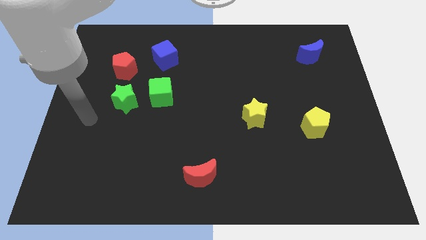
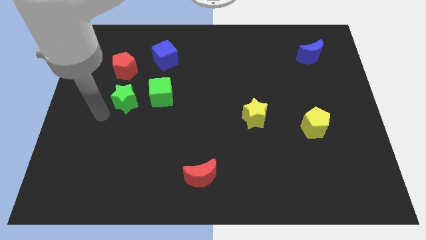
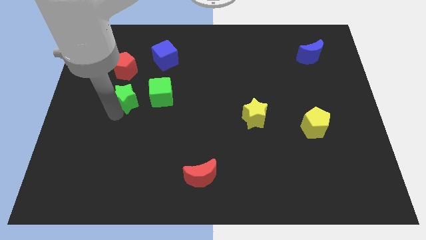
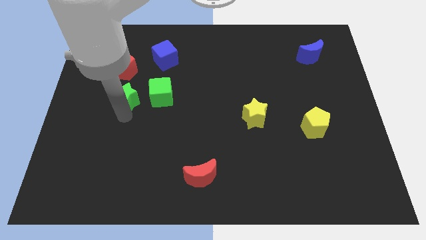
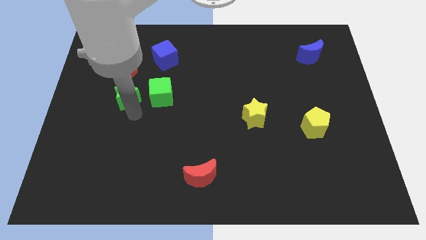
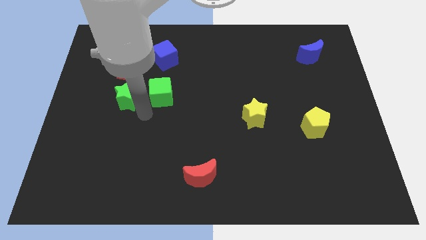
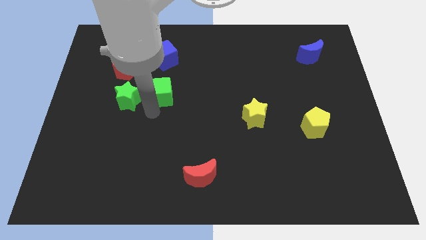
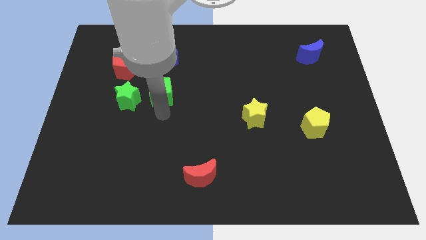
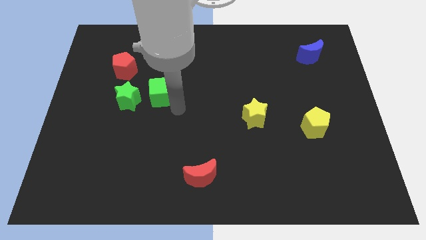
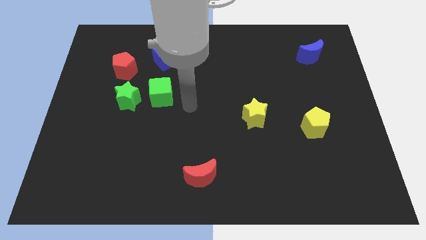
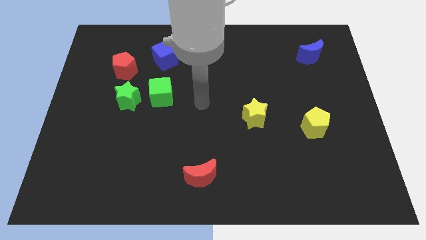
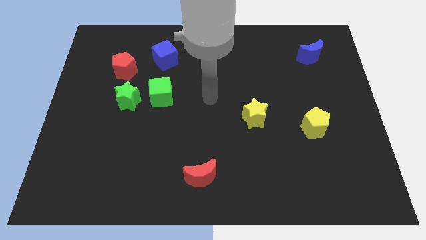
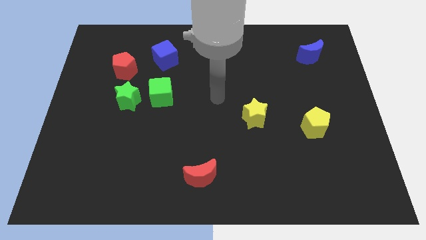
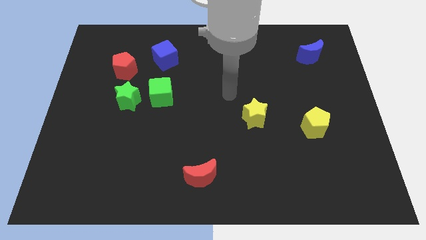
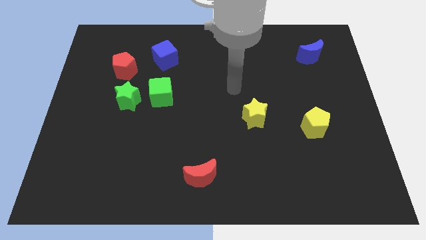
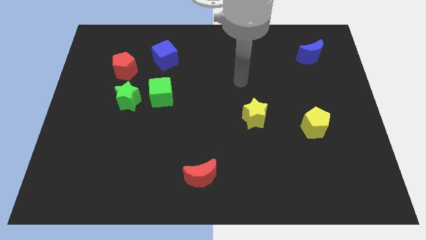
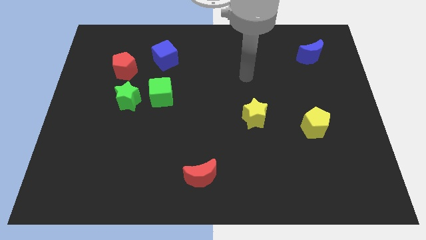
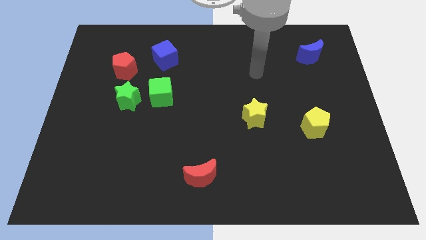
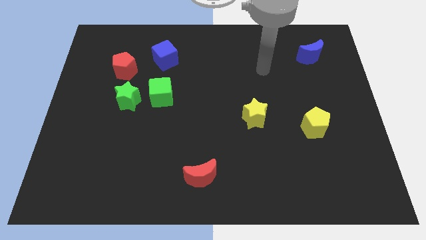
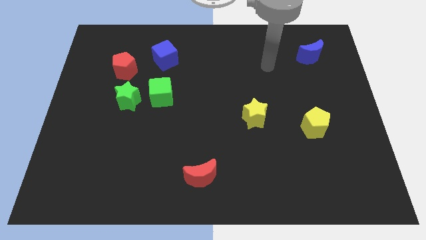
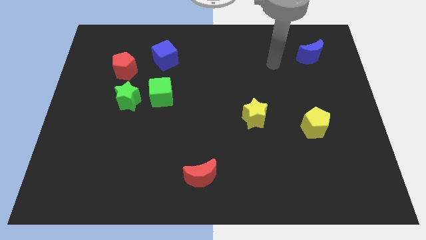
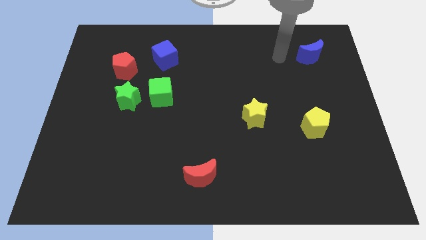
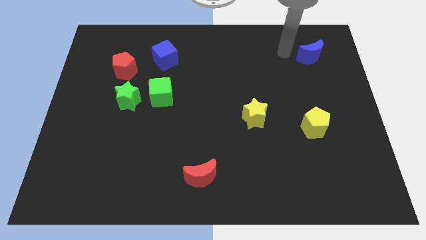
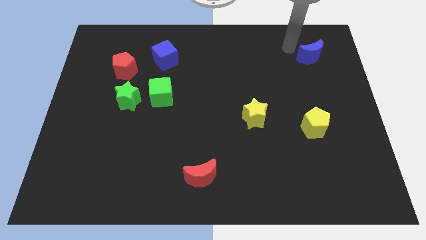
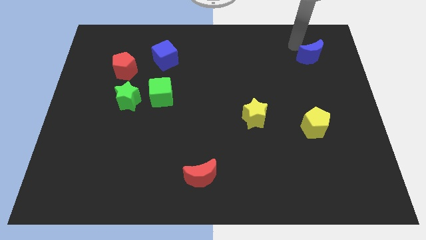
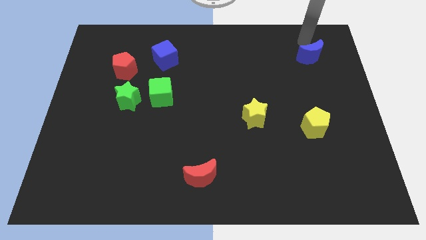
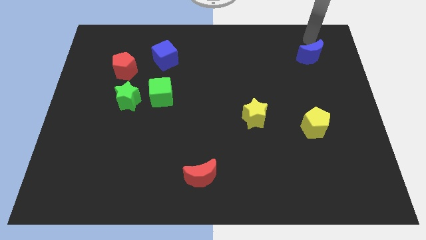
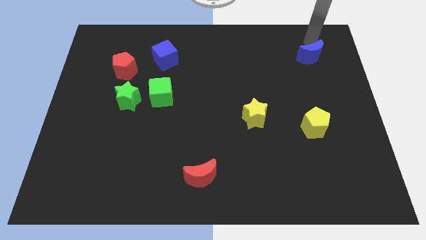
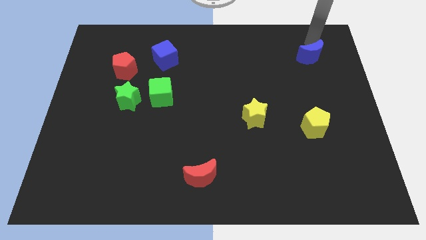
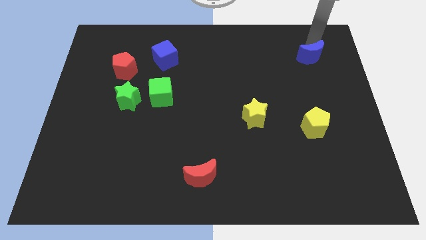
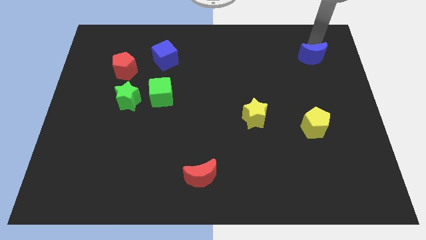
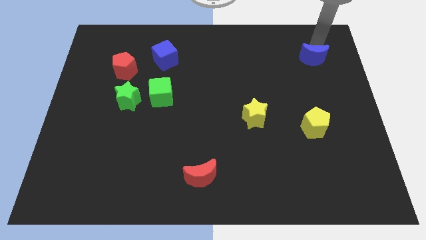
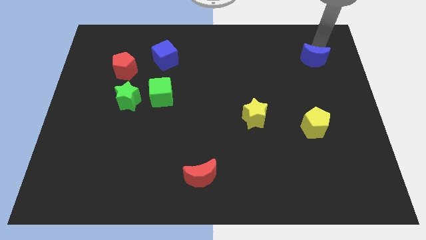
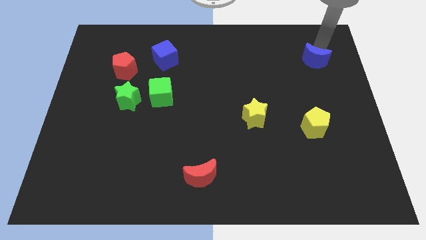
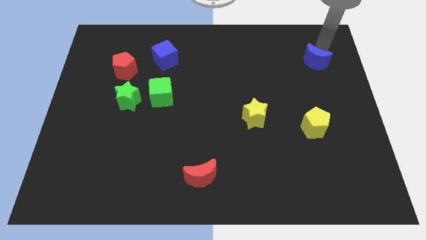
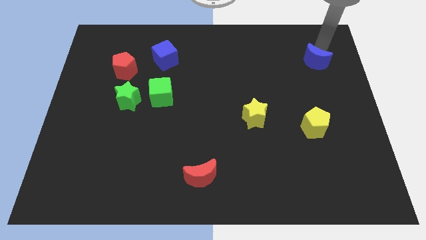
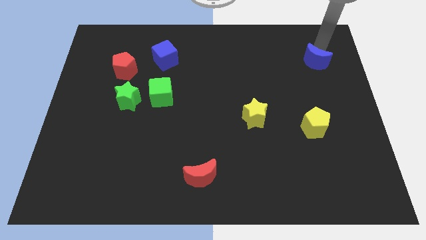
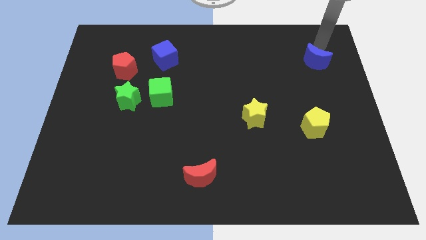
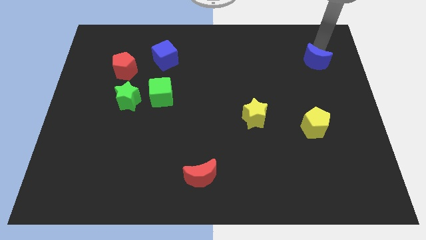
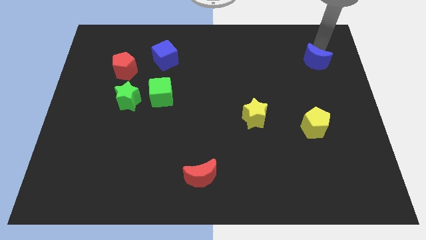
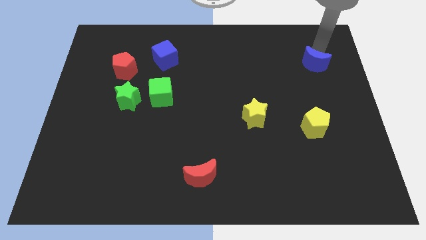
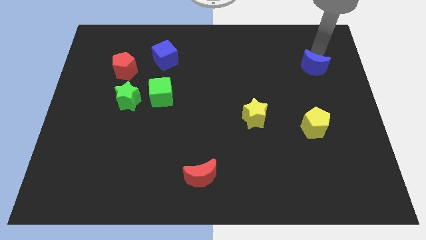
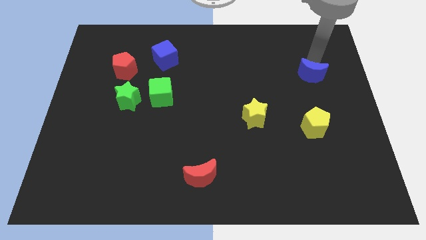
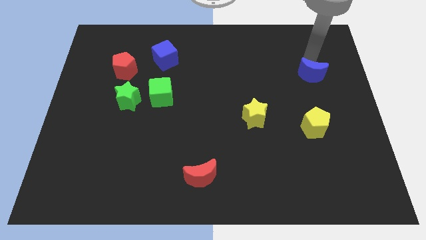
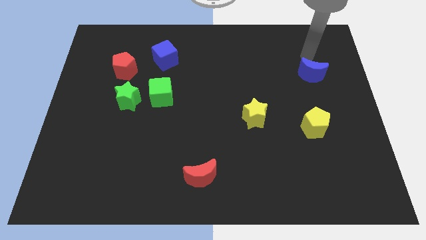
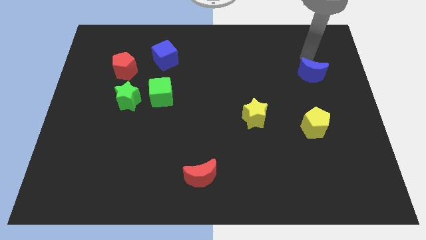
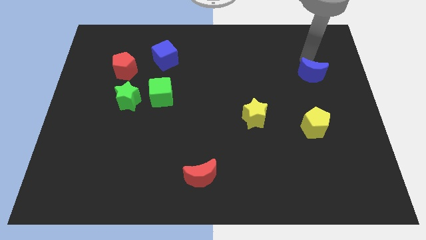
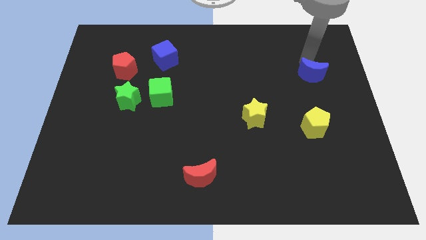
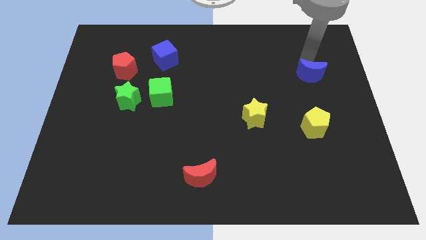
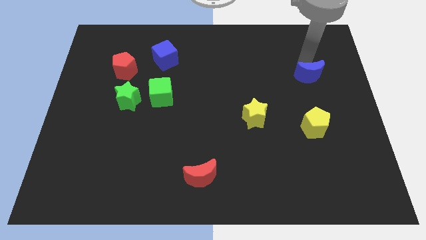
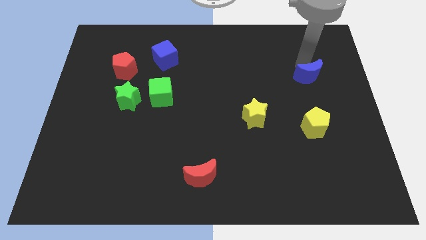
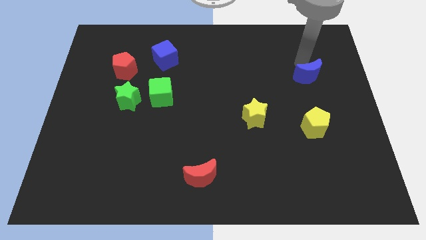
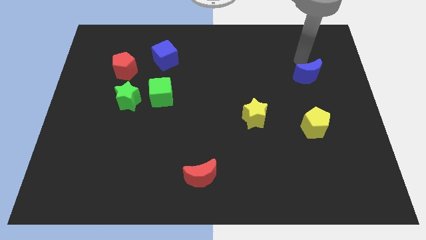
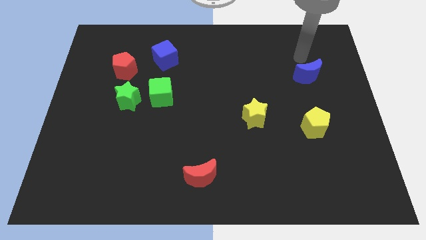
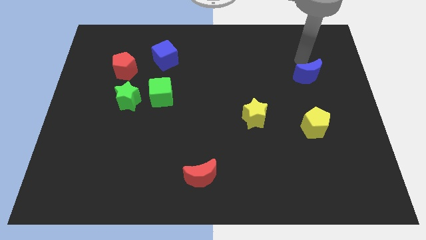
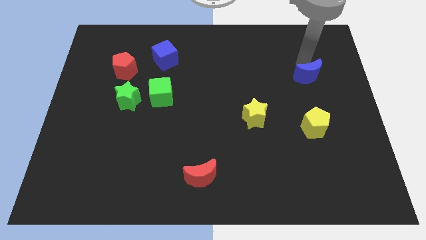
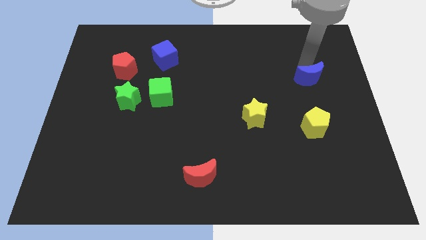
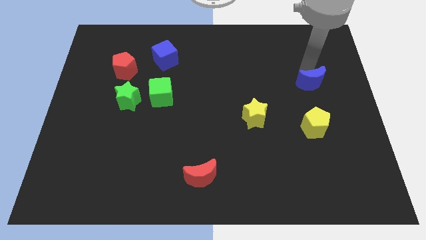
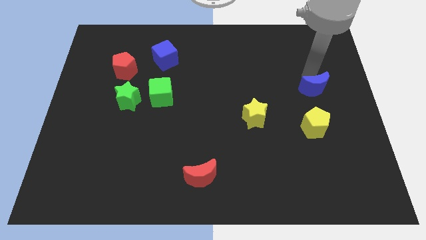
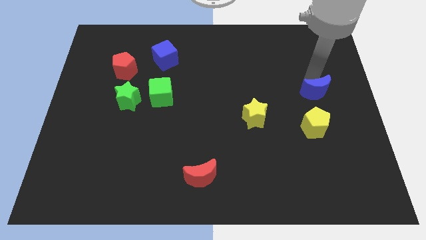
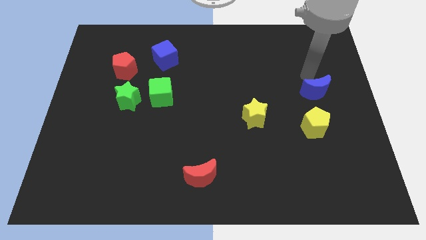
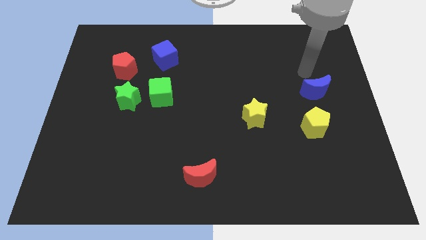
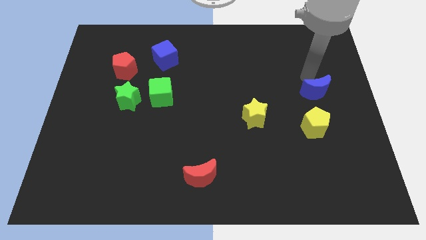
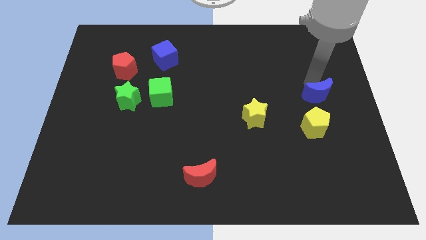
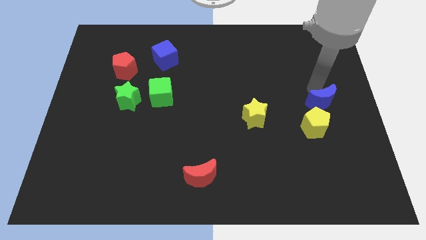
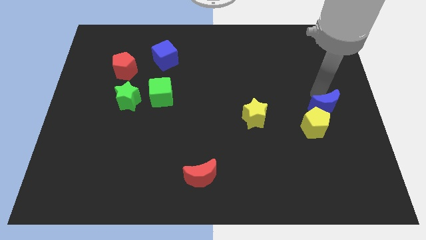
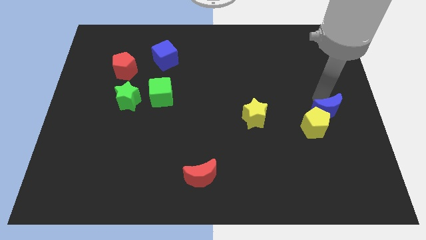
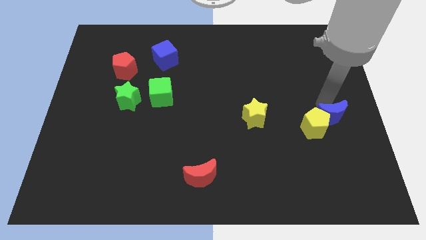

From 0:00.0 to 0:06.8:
move the blue moon down

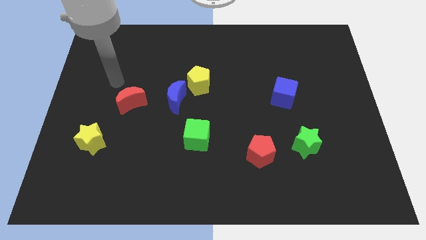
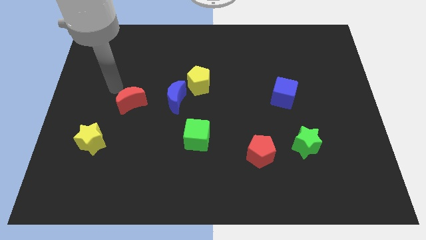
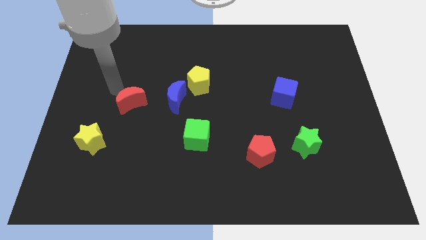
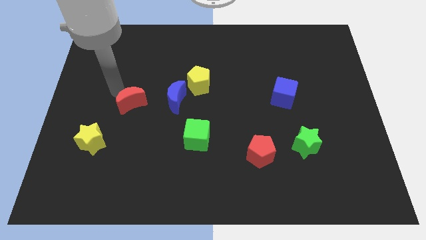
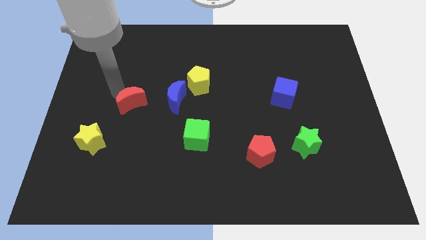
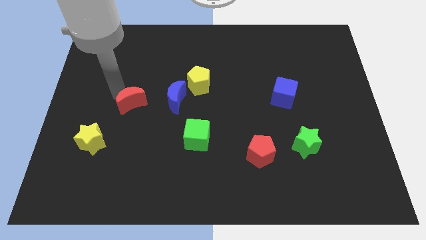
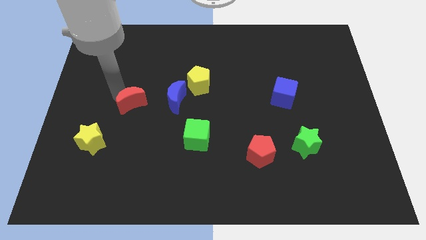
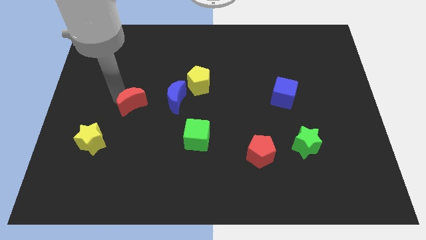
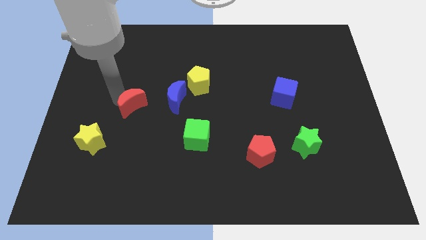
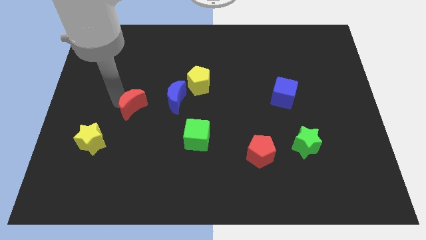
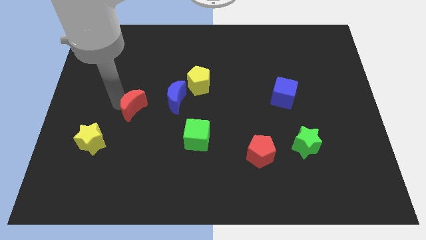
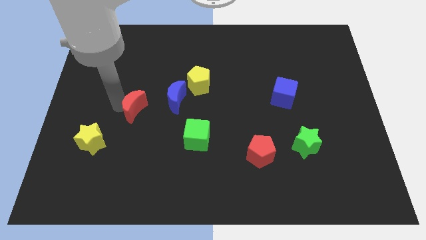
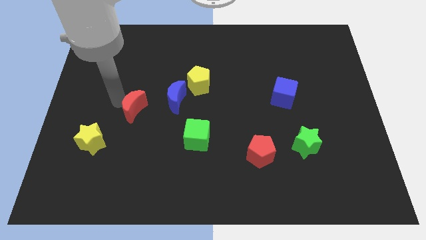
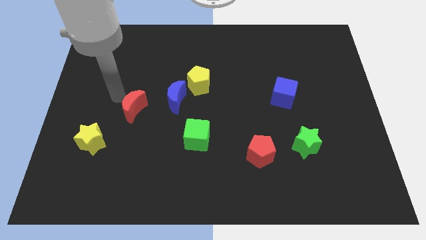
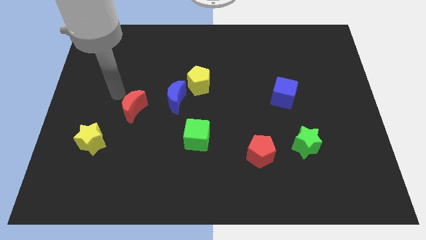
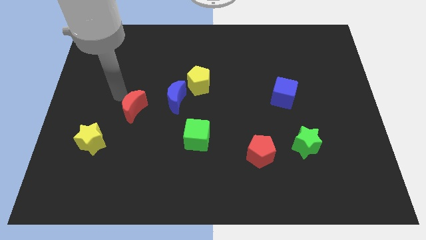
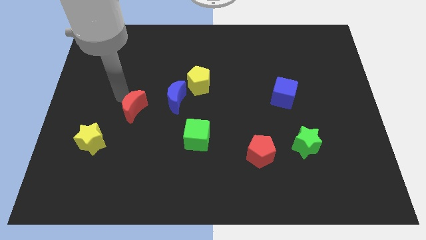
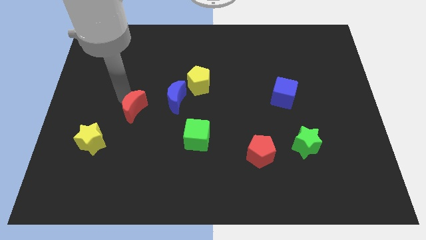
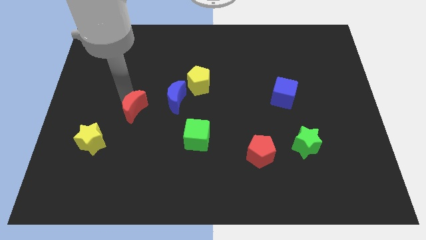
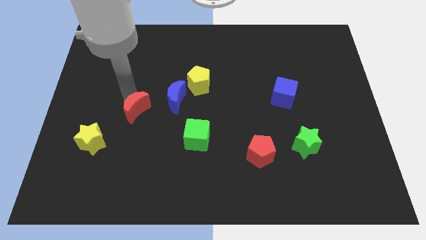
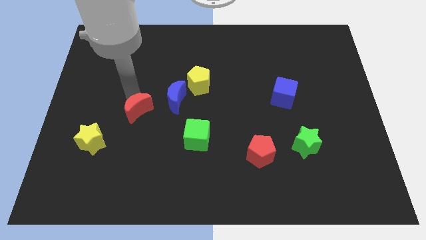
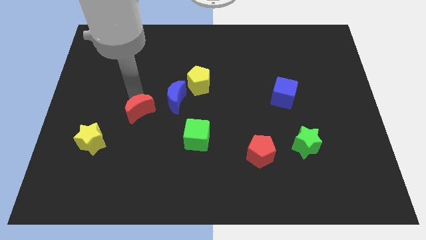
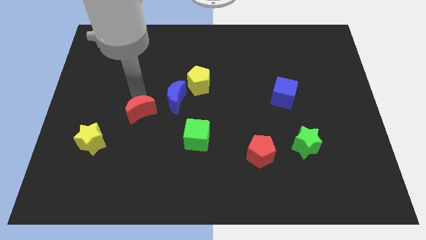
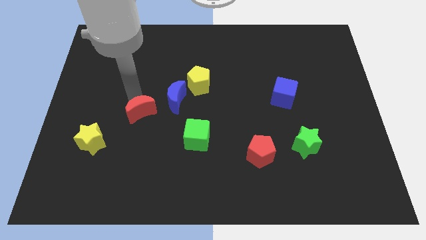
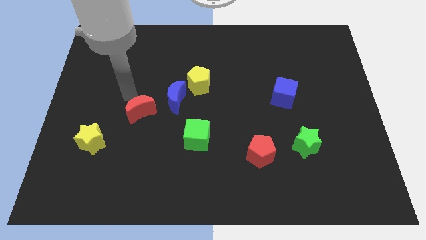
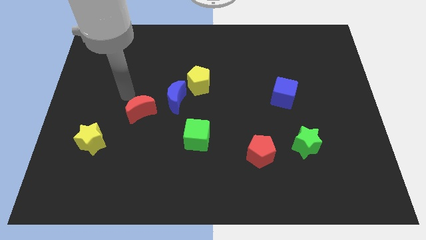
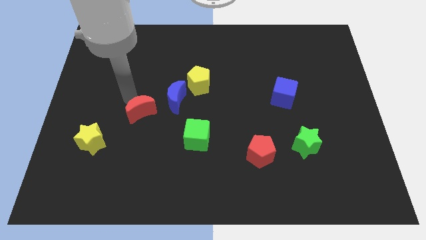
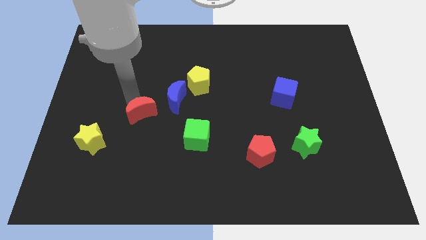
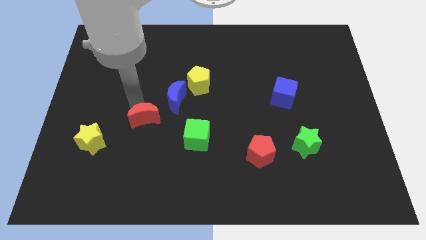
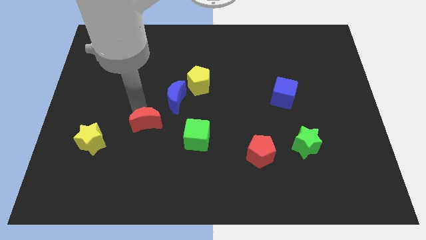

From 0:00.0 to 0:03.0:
slightly move the red moon down and right diagonally
